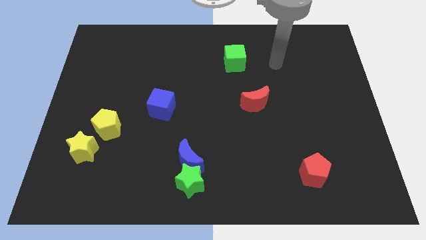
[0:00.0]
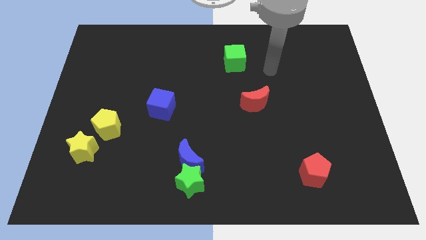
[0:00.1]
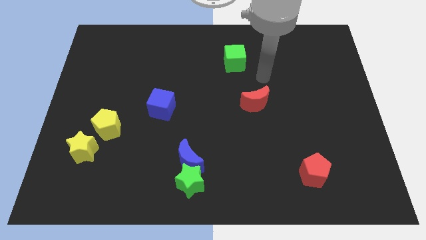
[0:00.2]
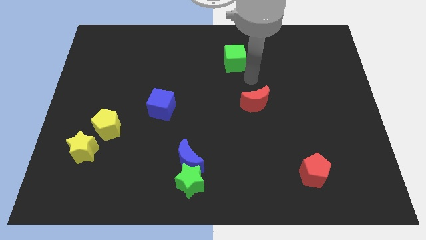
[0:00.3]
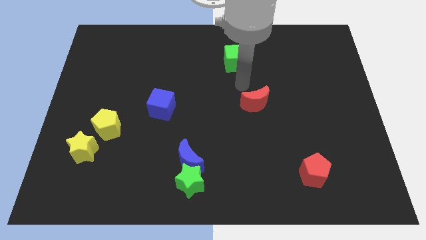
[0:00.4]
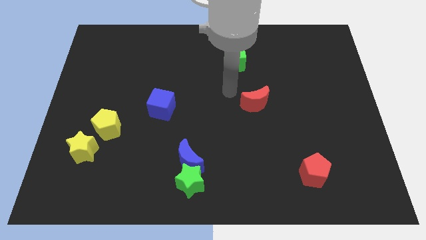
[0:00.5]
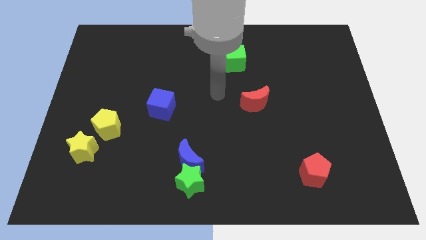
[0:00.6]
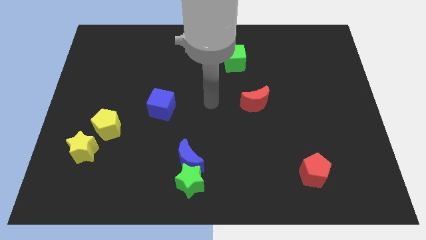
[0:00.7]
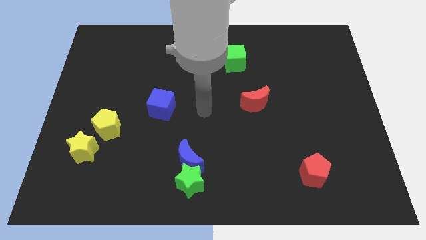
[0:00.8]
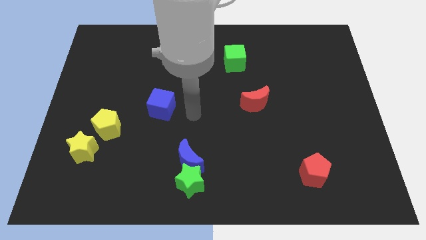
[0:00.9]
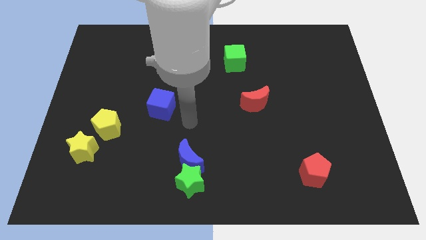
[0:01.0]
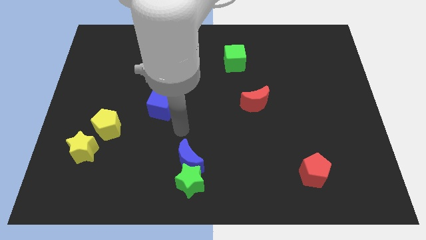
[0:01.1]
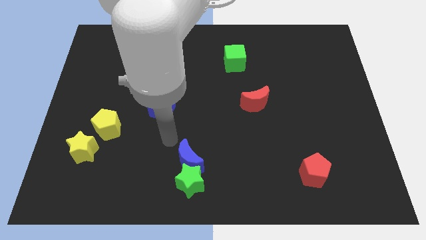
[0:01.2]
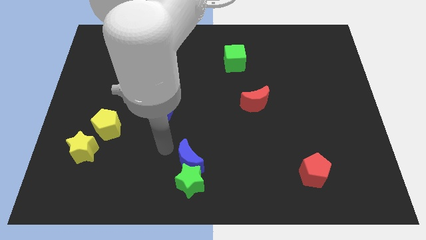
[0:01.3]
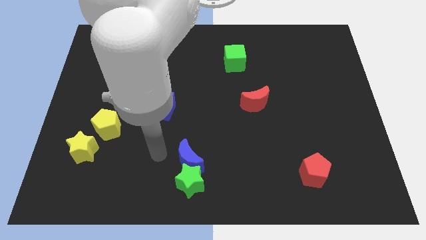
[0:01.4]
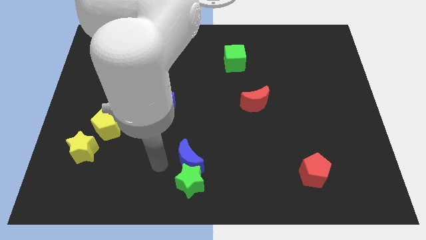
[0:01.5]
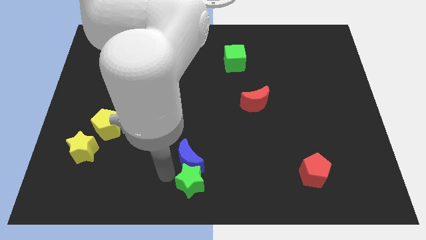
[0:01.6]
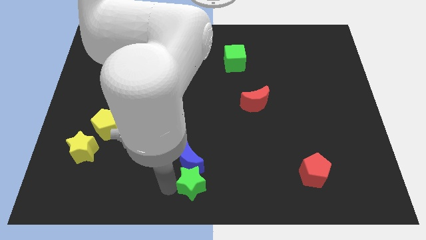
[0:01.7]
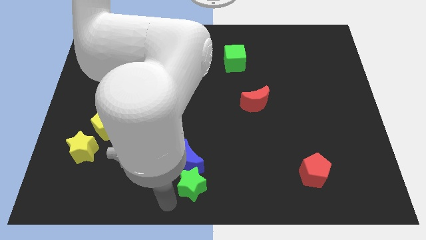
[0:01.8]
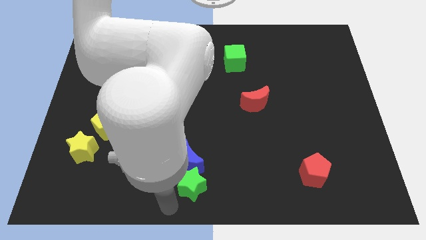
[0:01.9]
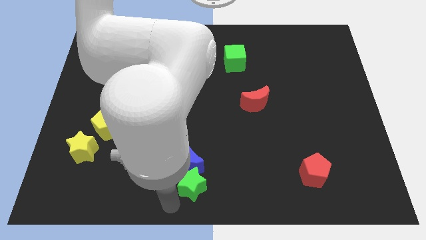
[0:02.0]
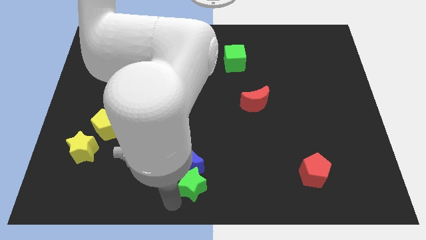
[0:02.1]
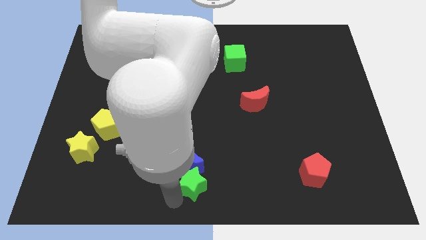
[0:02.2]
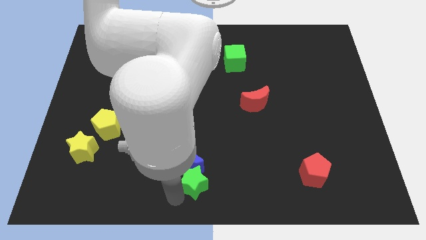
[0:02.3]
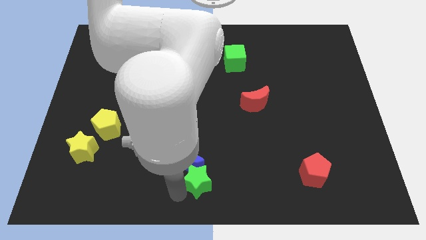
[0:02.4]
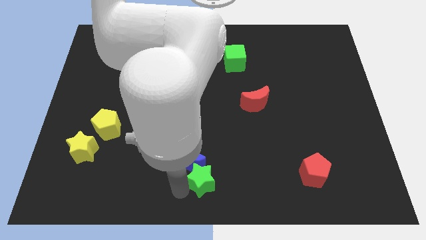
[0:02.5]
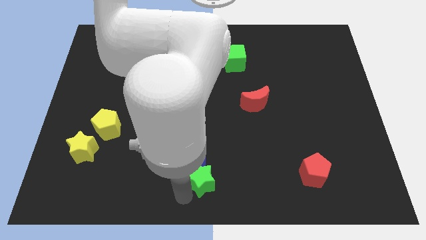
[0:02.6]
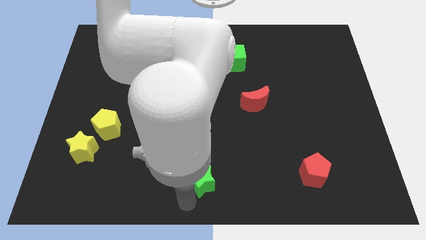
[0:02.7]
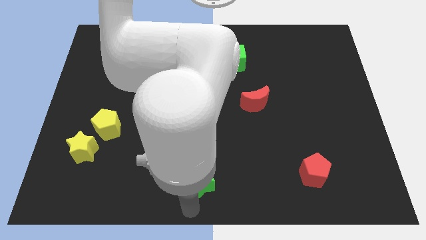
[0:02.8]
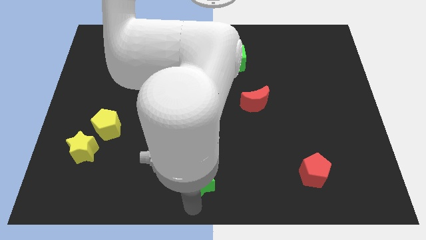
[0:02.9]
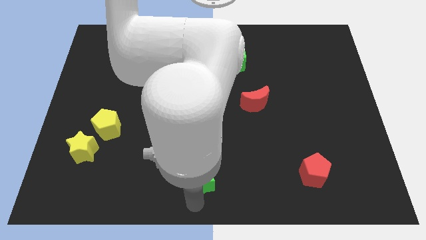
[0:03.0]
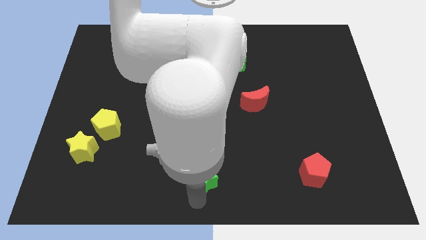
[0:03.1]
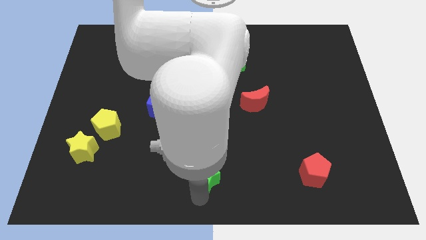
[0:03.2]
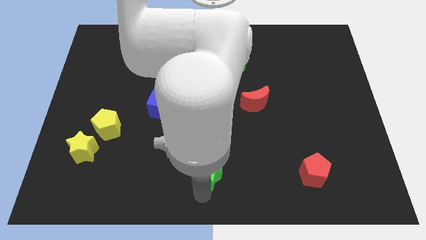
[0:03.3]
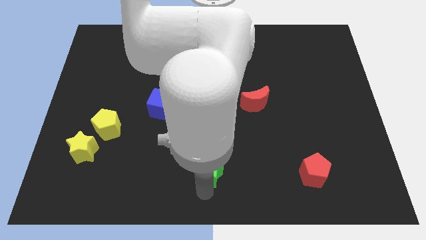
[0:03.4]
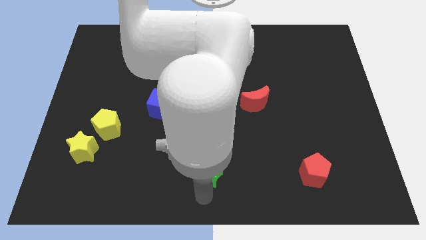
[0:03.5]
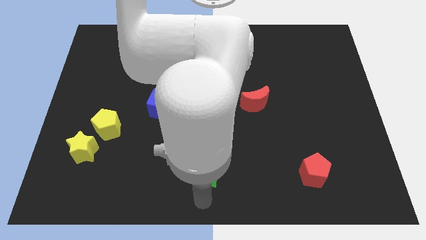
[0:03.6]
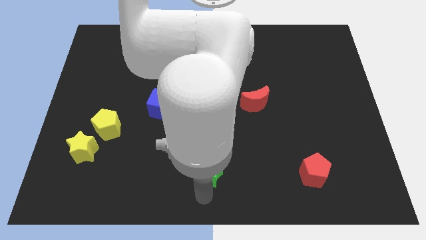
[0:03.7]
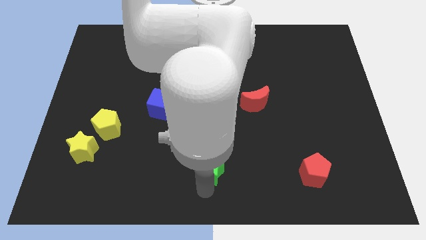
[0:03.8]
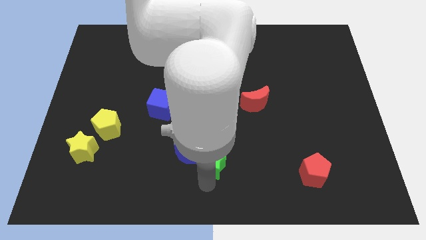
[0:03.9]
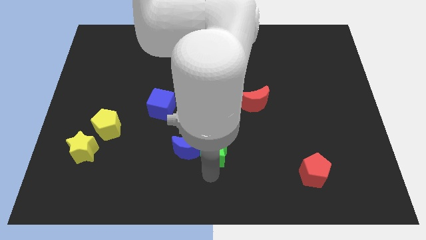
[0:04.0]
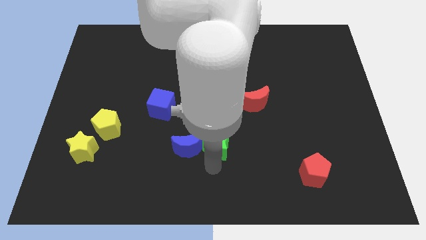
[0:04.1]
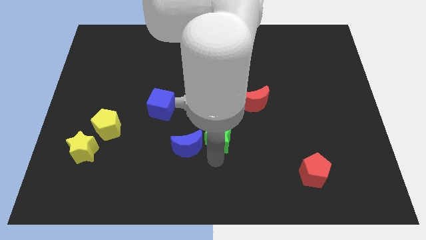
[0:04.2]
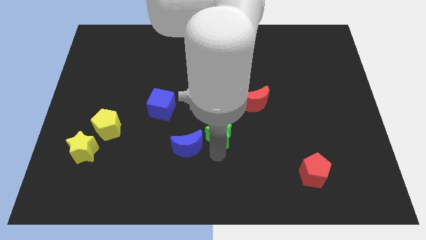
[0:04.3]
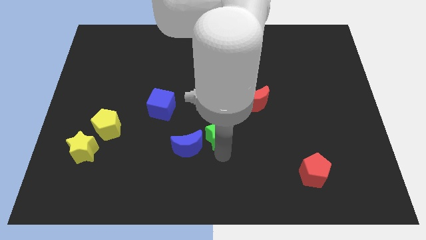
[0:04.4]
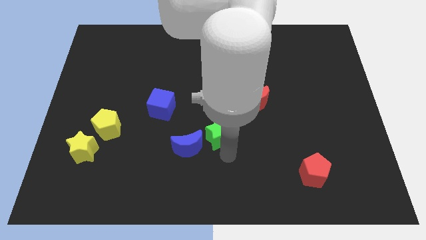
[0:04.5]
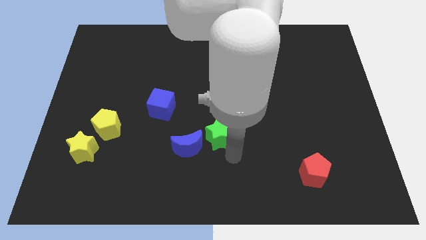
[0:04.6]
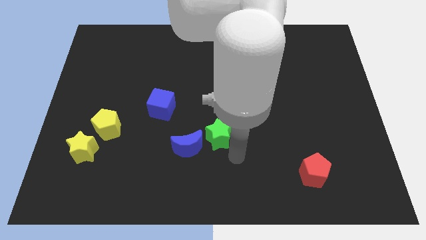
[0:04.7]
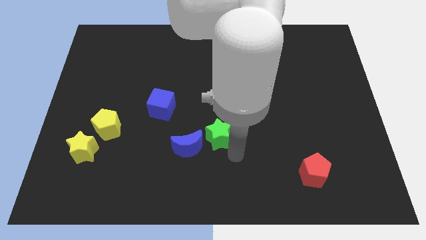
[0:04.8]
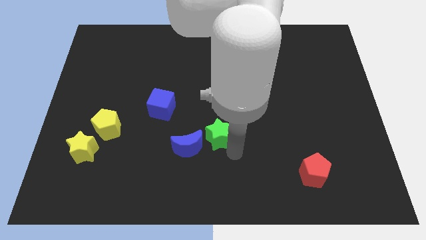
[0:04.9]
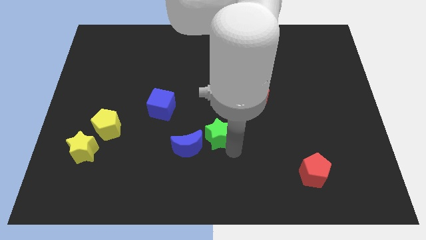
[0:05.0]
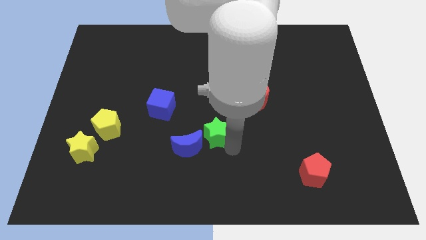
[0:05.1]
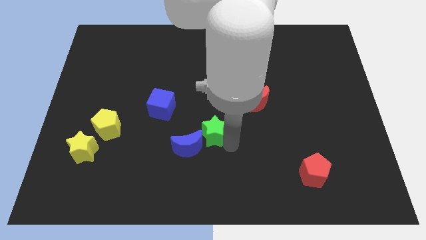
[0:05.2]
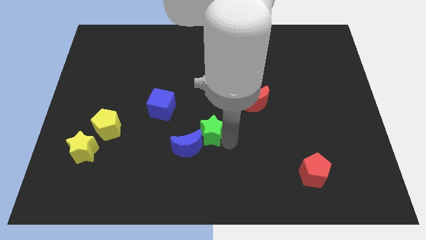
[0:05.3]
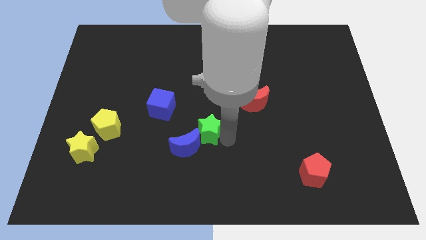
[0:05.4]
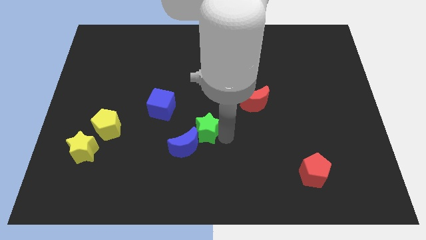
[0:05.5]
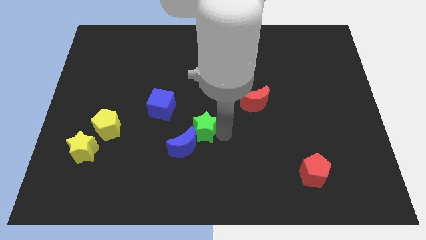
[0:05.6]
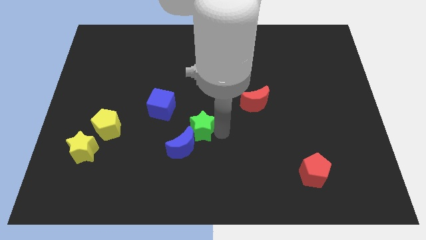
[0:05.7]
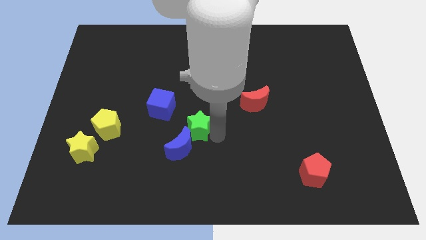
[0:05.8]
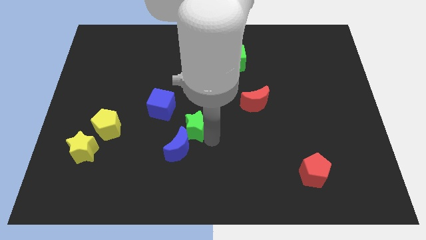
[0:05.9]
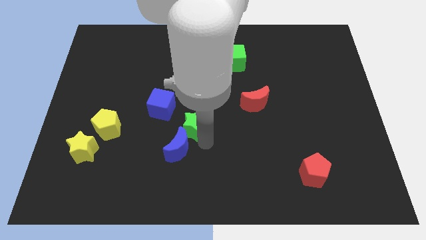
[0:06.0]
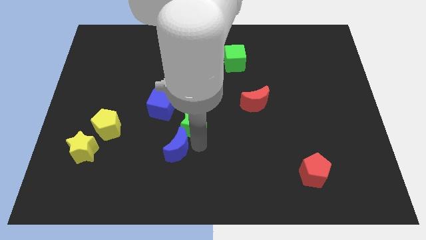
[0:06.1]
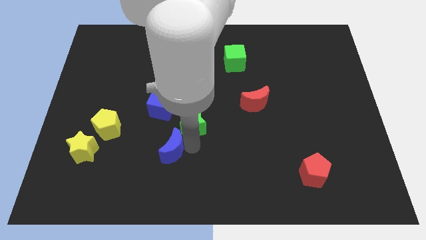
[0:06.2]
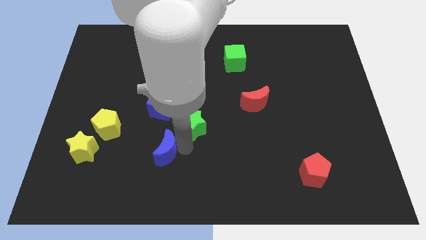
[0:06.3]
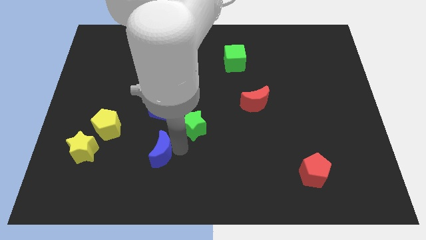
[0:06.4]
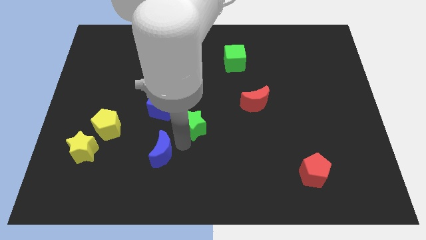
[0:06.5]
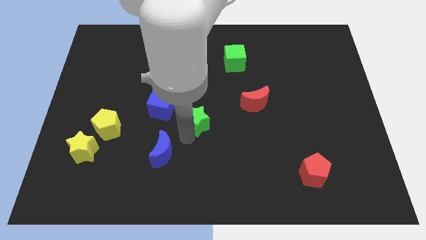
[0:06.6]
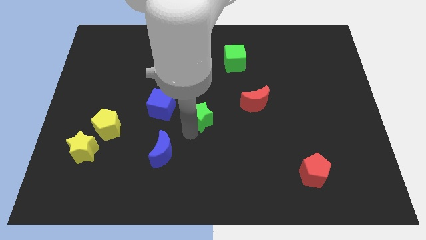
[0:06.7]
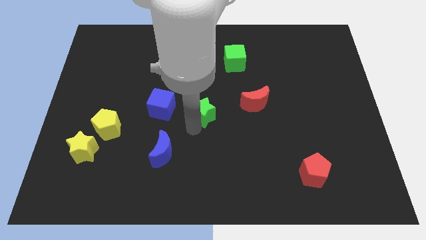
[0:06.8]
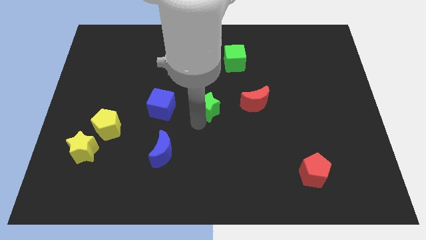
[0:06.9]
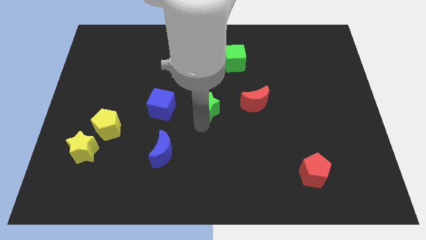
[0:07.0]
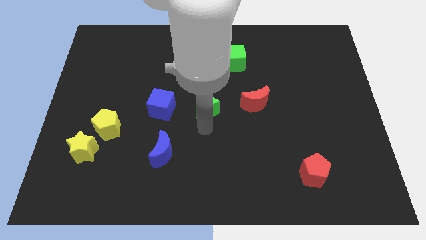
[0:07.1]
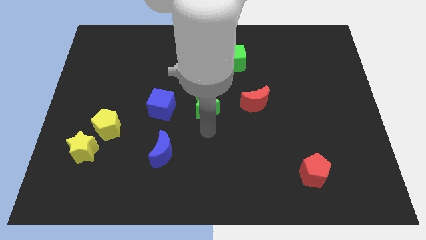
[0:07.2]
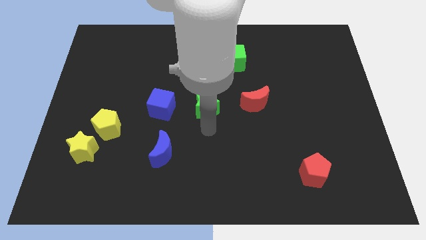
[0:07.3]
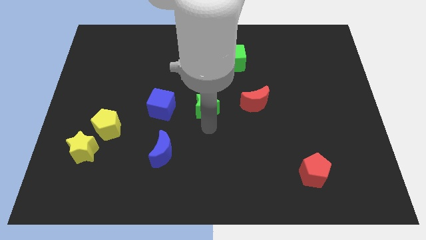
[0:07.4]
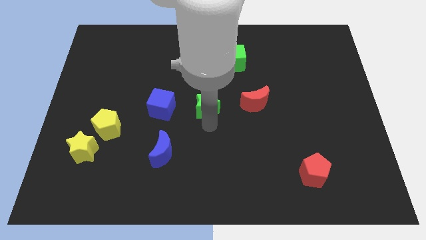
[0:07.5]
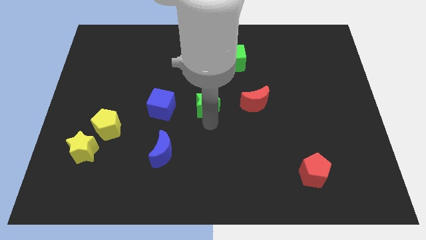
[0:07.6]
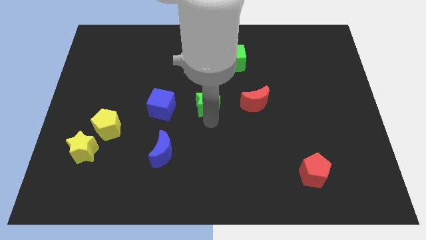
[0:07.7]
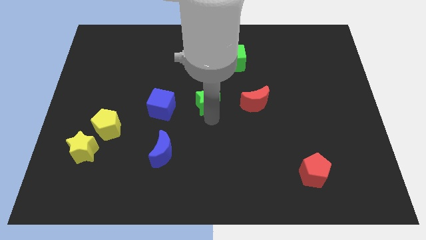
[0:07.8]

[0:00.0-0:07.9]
slide the green star up
